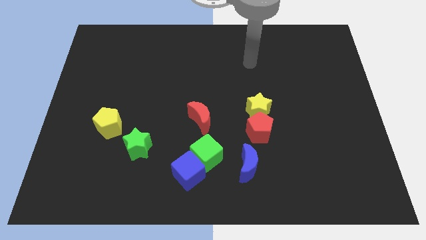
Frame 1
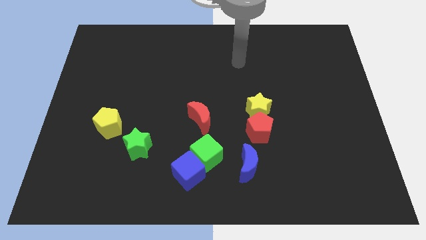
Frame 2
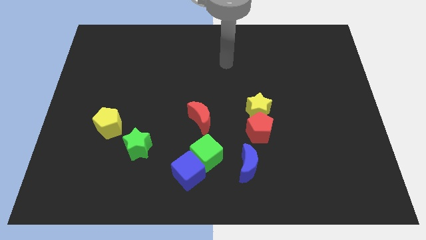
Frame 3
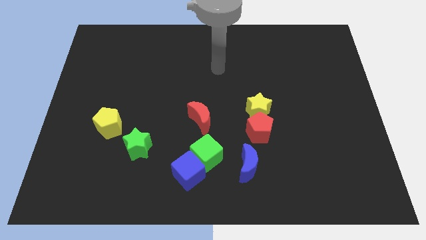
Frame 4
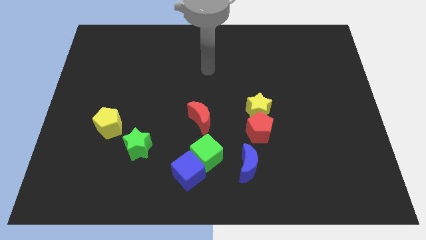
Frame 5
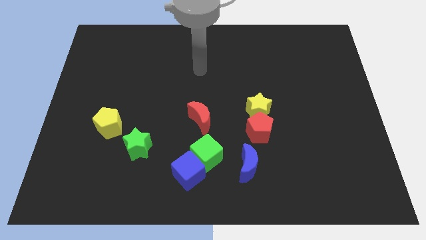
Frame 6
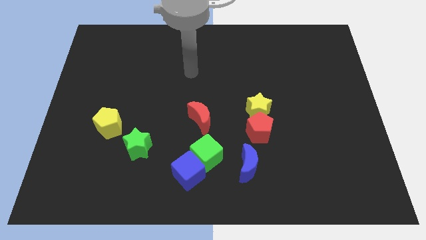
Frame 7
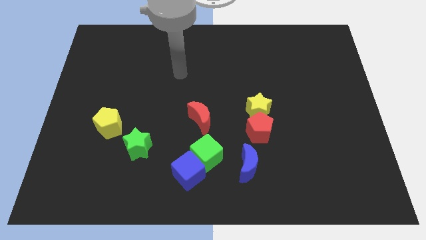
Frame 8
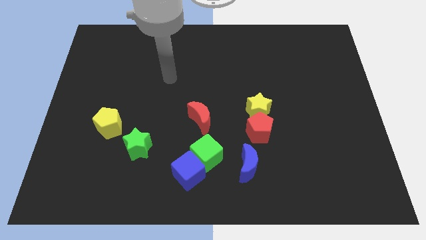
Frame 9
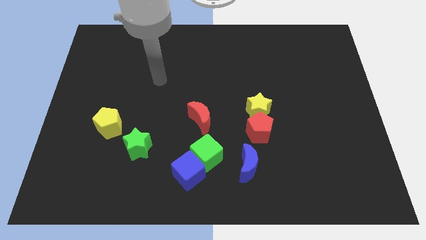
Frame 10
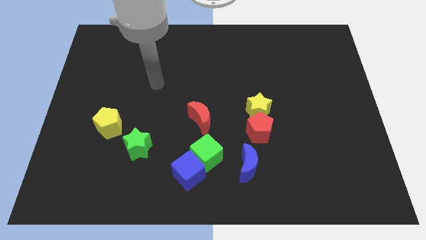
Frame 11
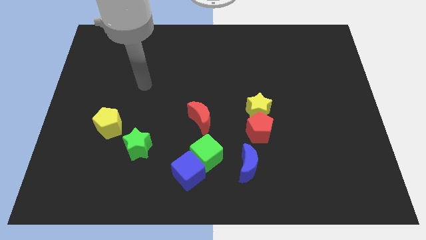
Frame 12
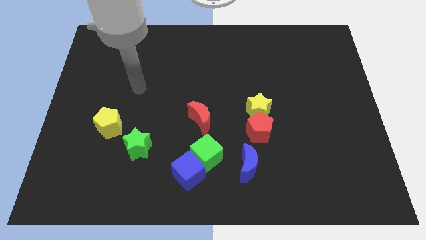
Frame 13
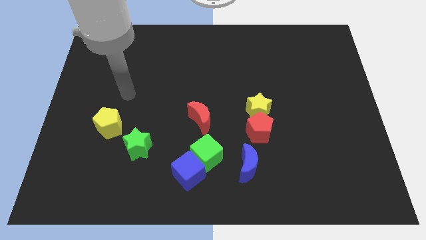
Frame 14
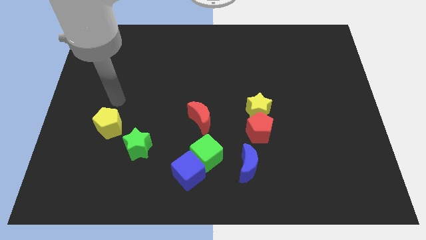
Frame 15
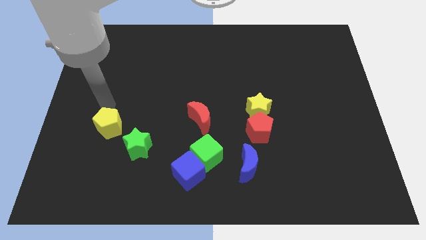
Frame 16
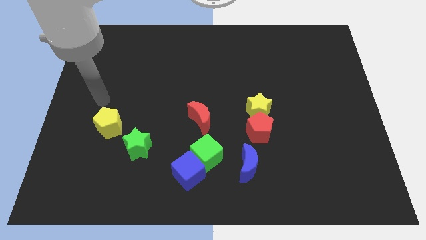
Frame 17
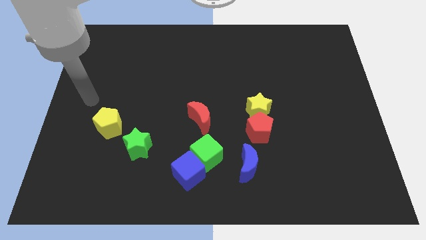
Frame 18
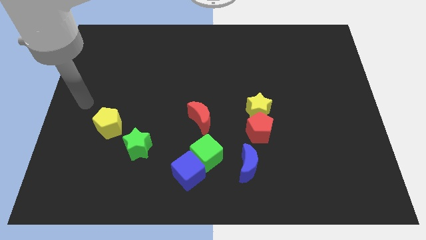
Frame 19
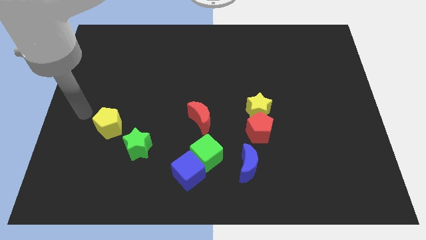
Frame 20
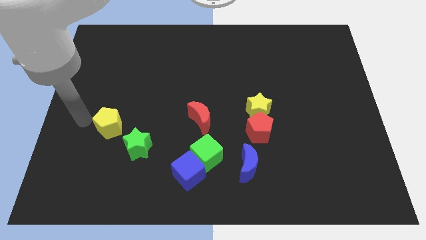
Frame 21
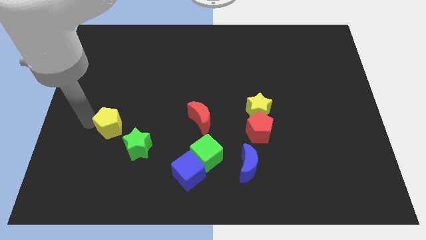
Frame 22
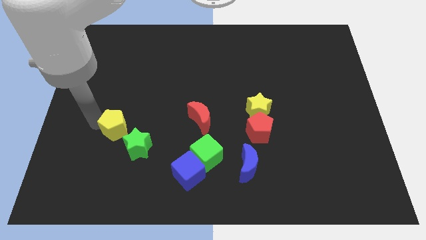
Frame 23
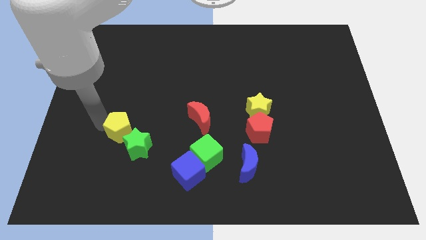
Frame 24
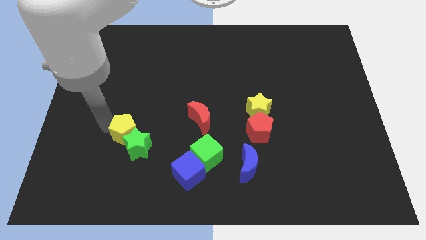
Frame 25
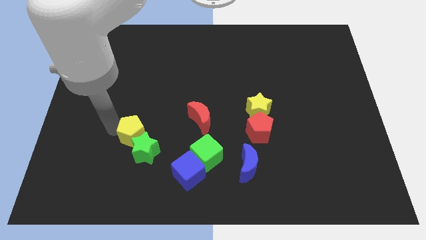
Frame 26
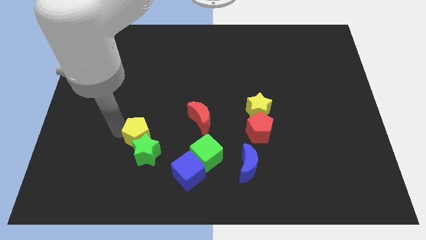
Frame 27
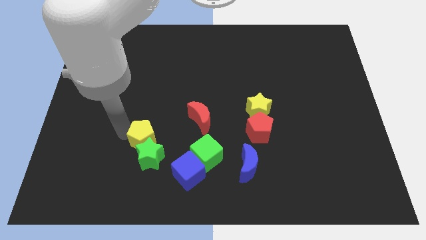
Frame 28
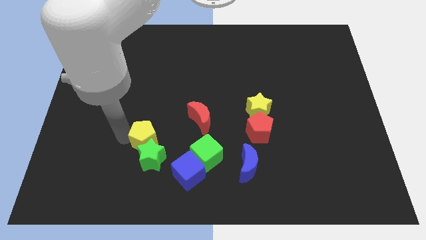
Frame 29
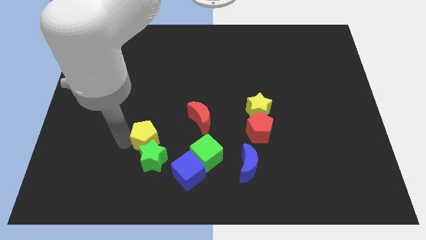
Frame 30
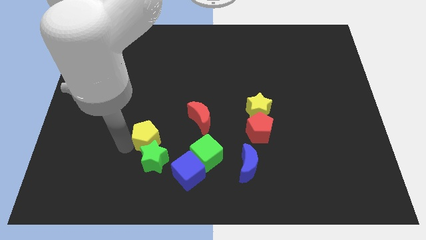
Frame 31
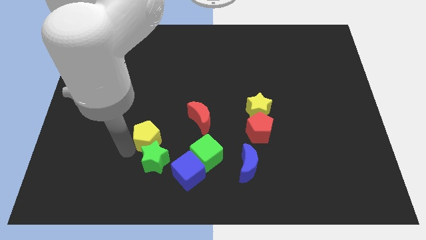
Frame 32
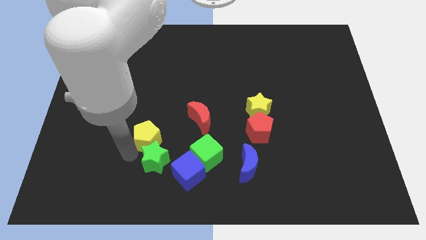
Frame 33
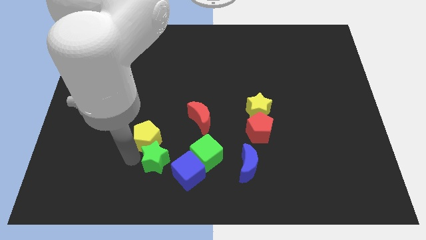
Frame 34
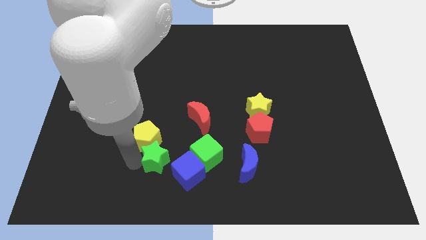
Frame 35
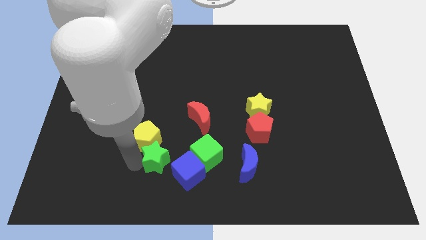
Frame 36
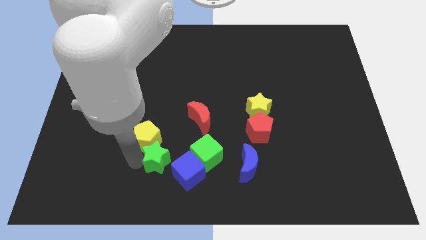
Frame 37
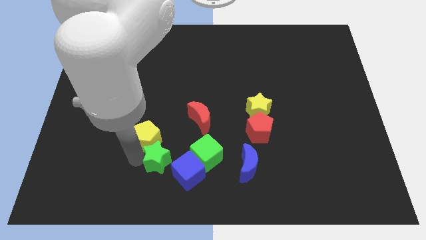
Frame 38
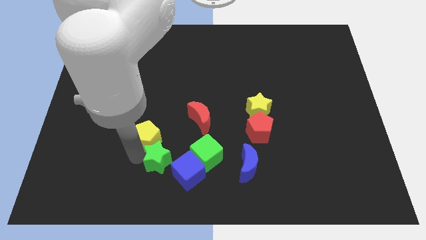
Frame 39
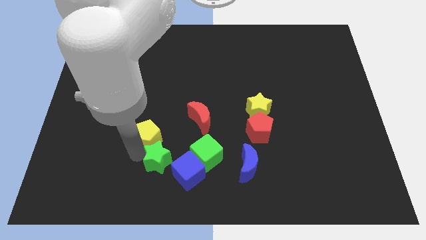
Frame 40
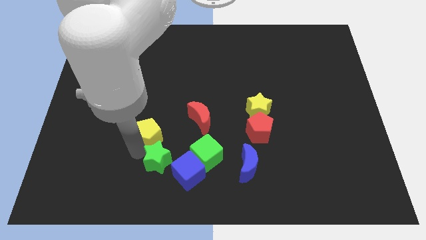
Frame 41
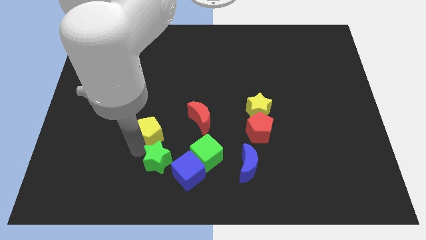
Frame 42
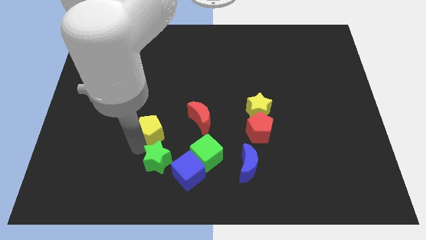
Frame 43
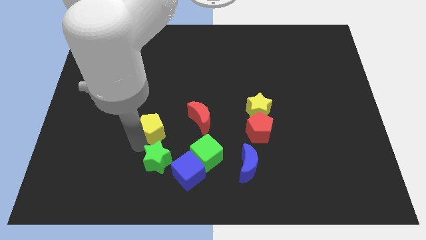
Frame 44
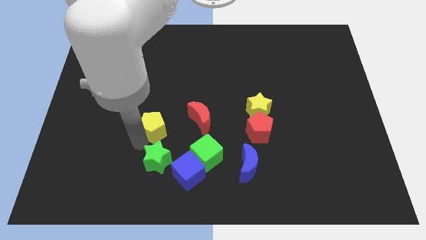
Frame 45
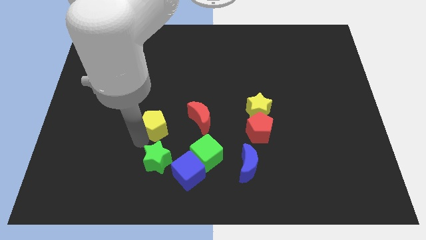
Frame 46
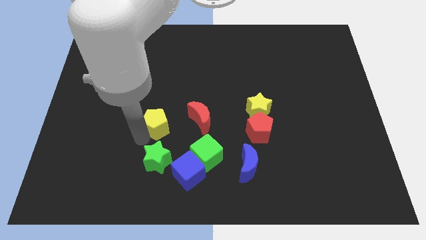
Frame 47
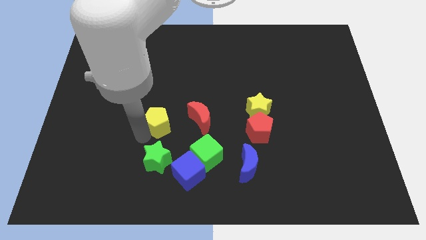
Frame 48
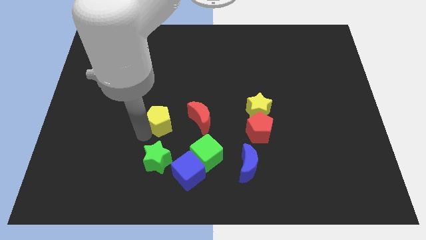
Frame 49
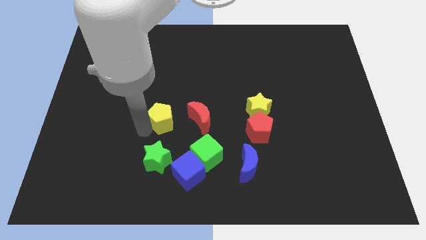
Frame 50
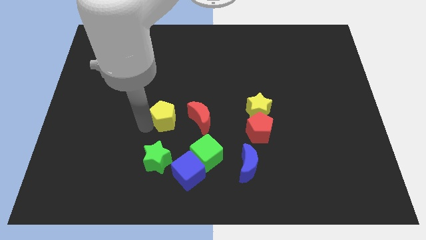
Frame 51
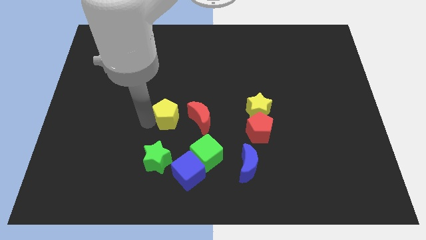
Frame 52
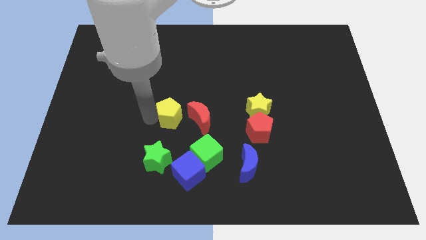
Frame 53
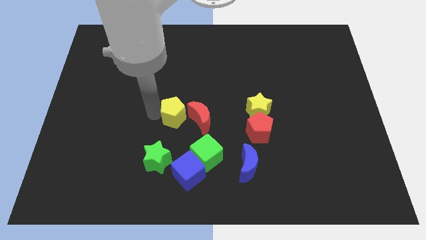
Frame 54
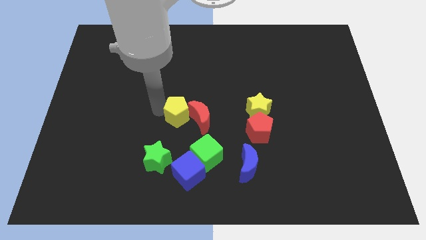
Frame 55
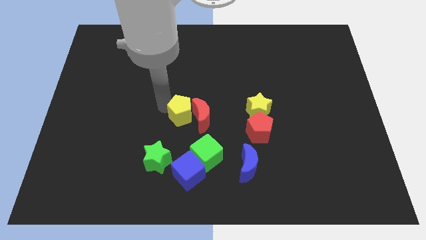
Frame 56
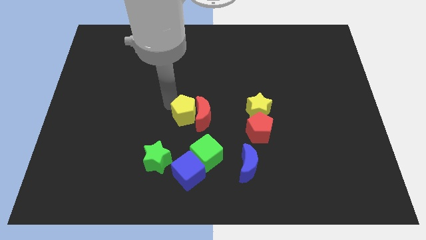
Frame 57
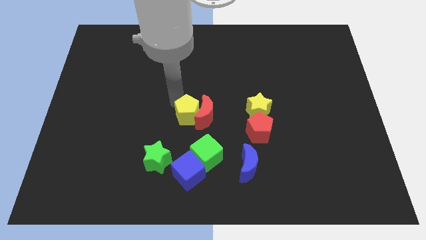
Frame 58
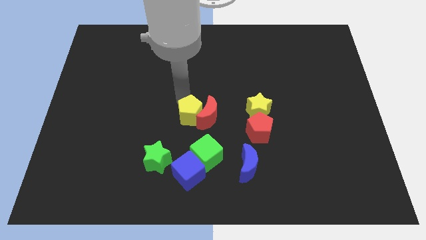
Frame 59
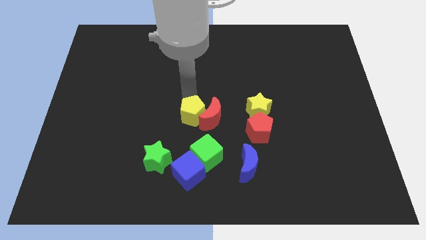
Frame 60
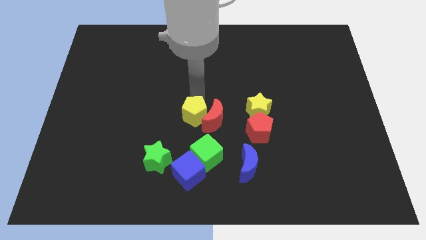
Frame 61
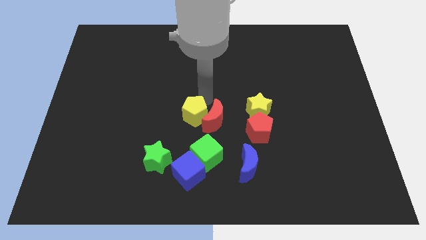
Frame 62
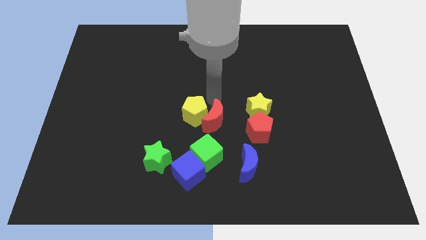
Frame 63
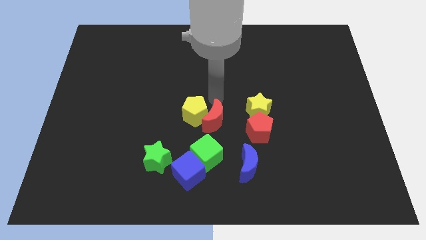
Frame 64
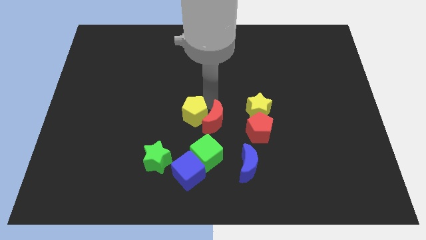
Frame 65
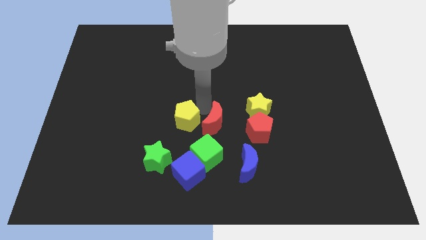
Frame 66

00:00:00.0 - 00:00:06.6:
push the yellow pentagon diagonally up and to the left of the green cube
